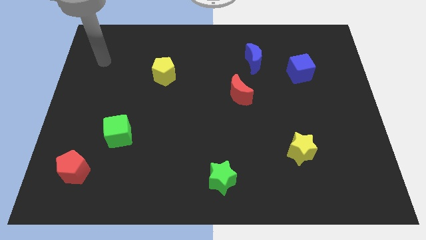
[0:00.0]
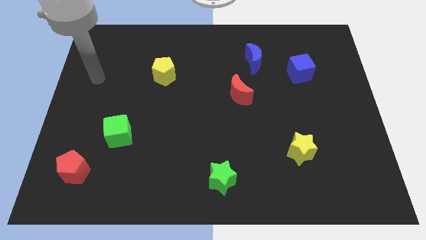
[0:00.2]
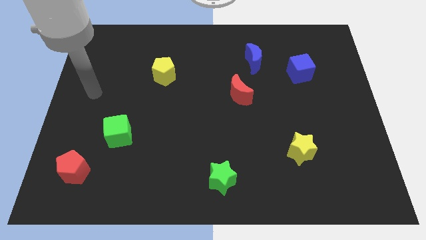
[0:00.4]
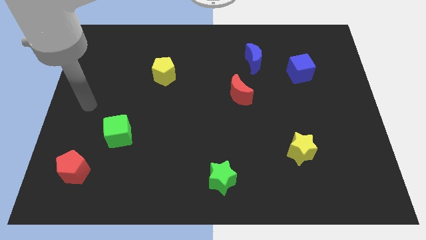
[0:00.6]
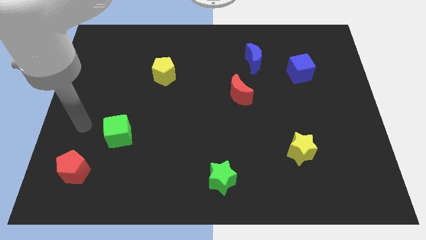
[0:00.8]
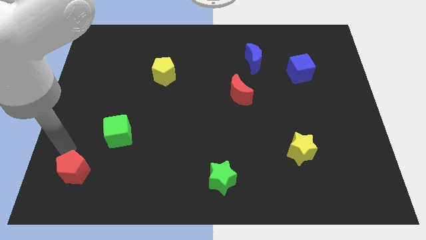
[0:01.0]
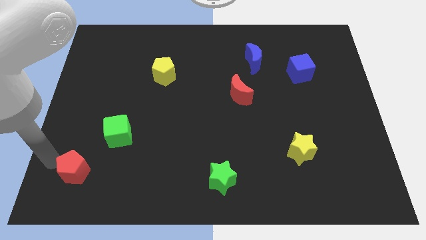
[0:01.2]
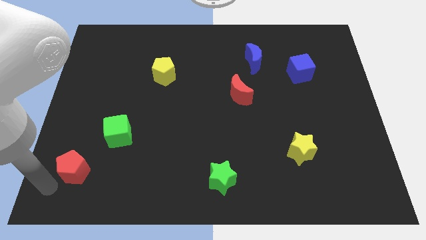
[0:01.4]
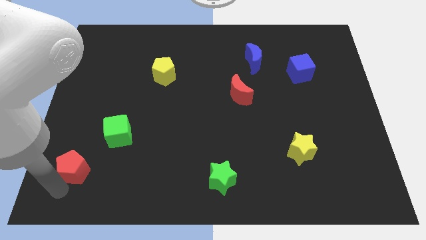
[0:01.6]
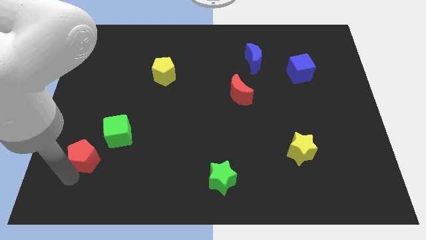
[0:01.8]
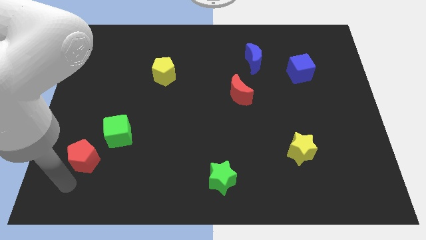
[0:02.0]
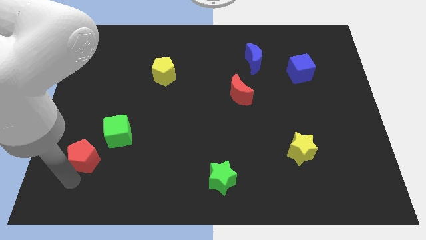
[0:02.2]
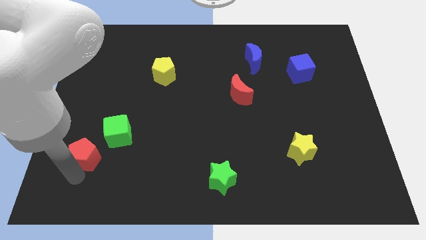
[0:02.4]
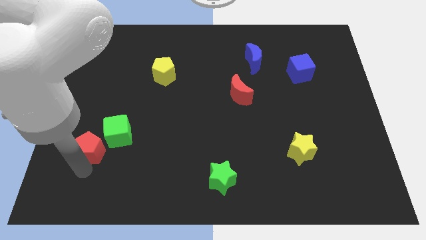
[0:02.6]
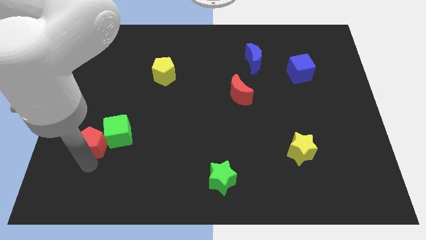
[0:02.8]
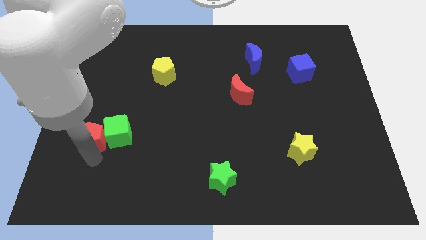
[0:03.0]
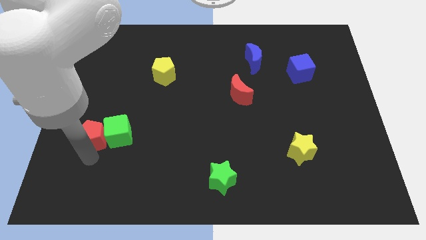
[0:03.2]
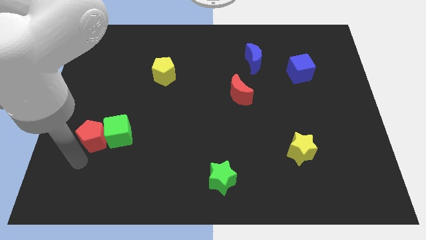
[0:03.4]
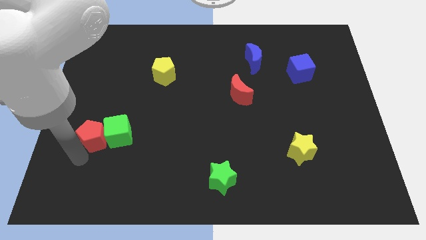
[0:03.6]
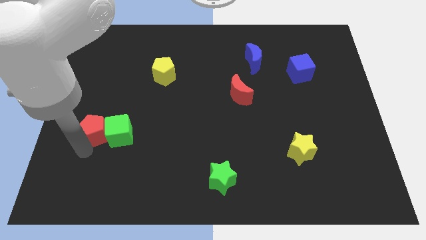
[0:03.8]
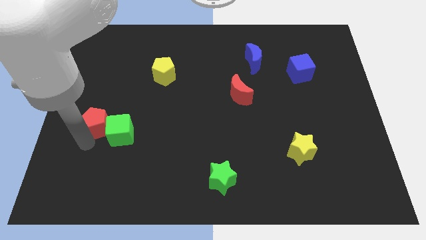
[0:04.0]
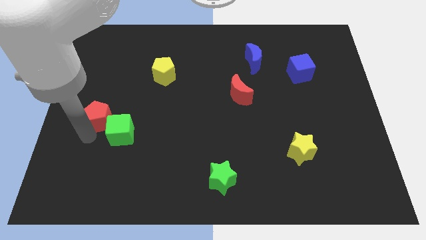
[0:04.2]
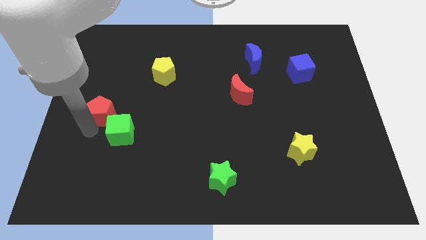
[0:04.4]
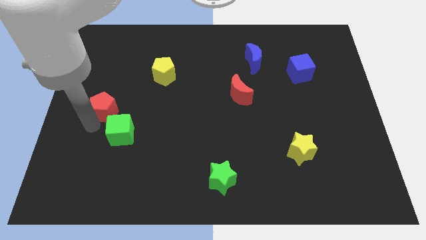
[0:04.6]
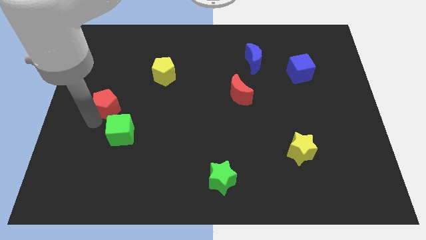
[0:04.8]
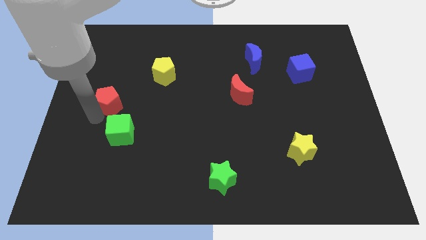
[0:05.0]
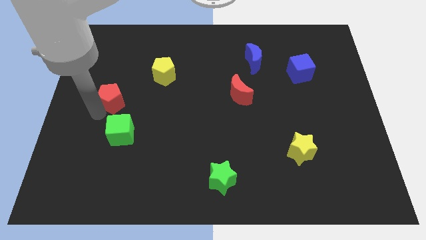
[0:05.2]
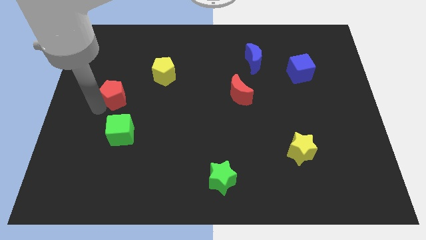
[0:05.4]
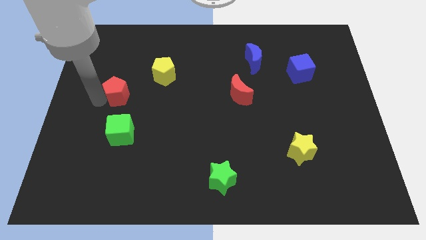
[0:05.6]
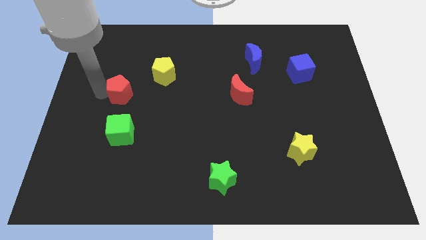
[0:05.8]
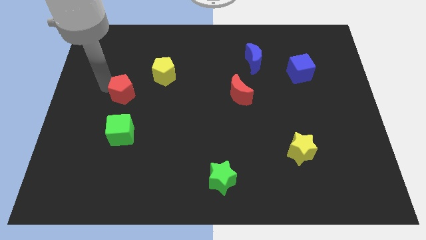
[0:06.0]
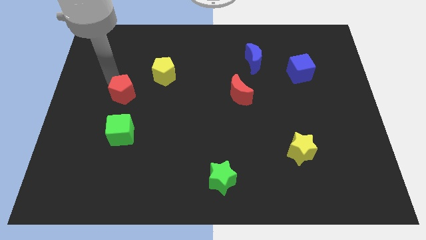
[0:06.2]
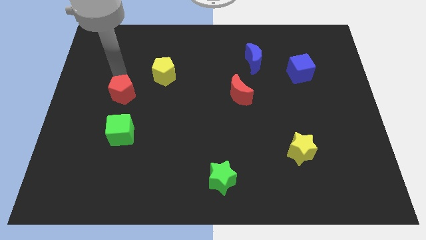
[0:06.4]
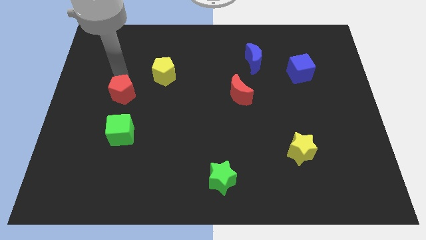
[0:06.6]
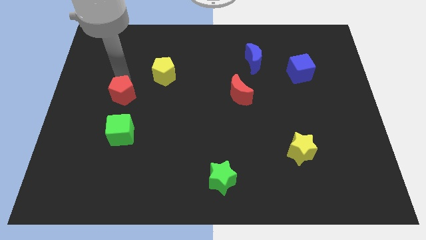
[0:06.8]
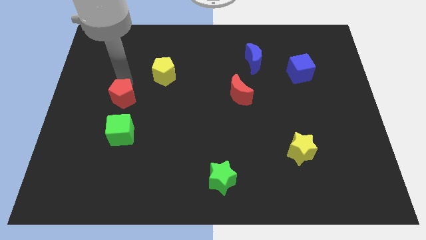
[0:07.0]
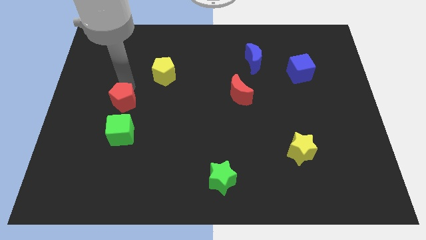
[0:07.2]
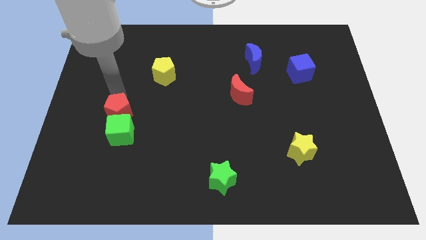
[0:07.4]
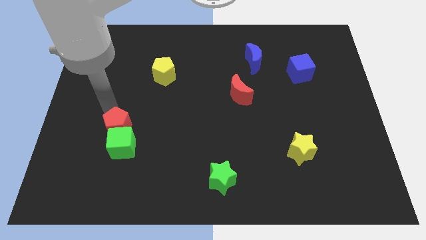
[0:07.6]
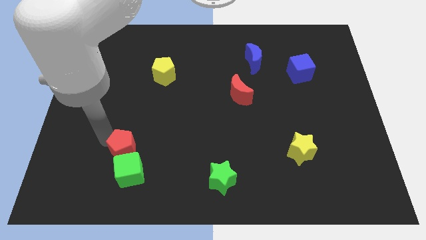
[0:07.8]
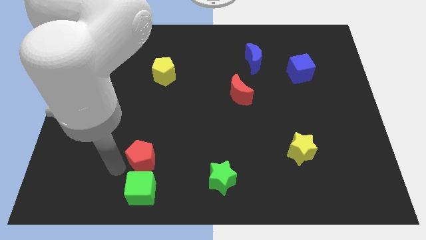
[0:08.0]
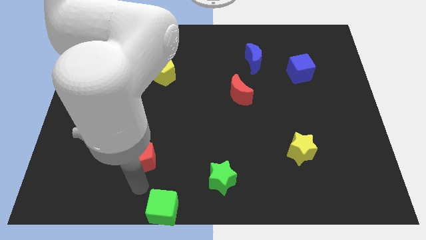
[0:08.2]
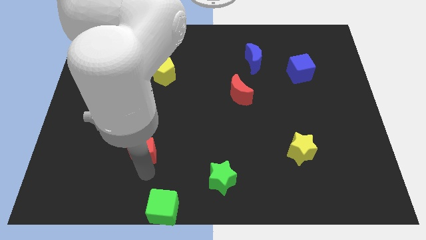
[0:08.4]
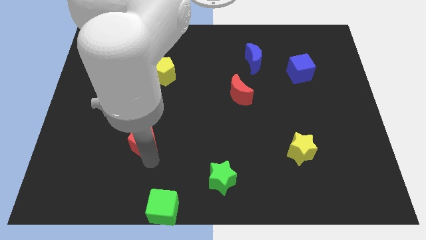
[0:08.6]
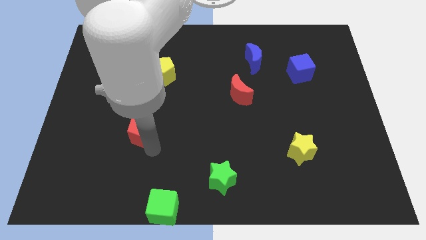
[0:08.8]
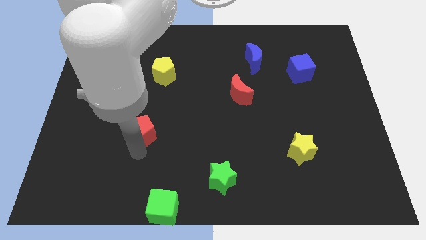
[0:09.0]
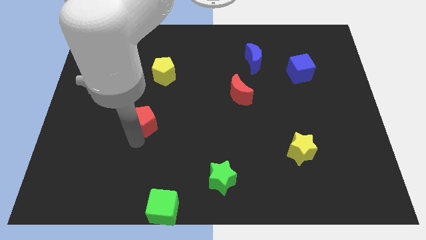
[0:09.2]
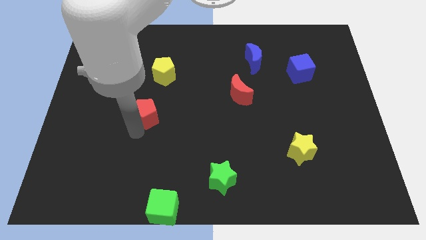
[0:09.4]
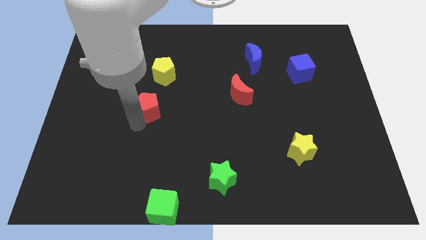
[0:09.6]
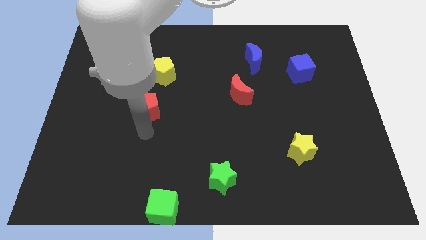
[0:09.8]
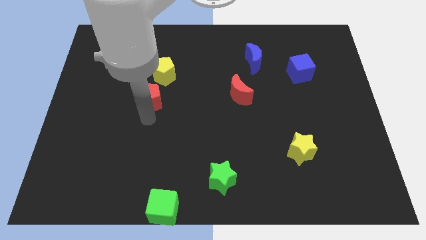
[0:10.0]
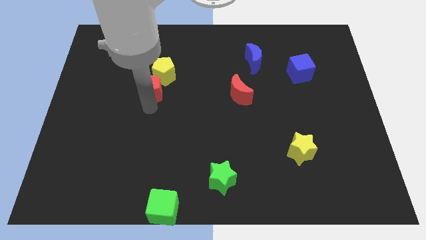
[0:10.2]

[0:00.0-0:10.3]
put the red pentagon next to the yellow pentagon
